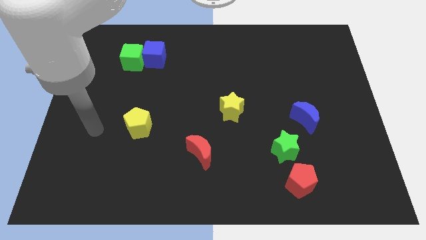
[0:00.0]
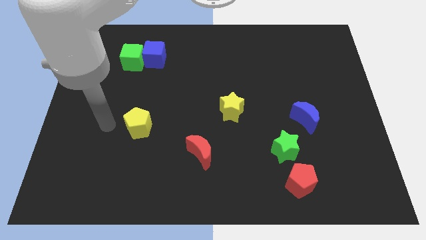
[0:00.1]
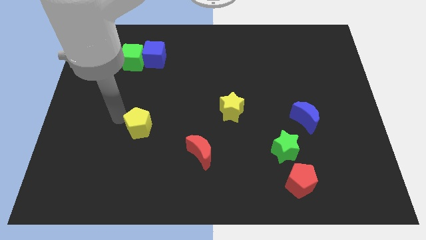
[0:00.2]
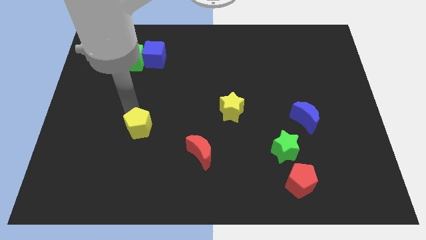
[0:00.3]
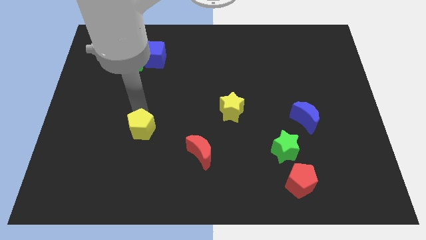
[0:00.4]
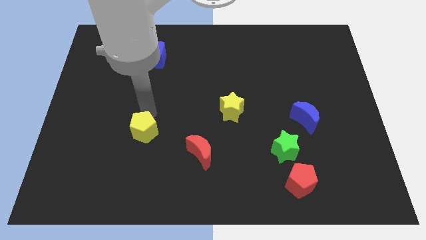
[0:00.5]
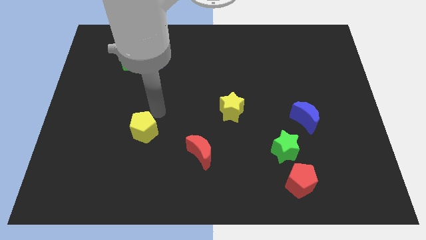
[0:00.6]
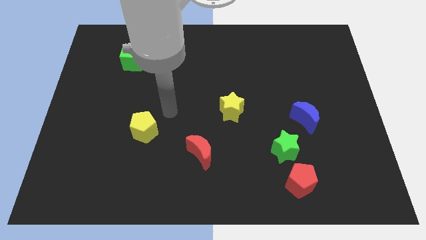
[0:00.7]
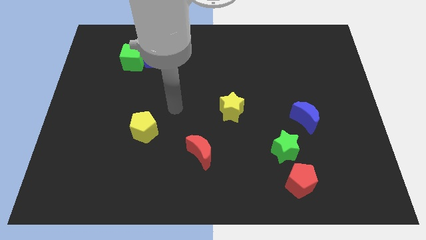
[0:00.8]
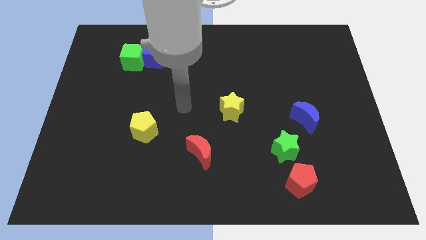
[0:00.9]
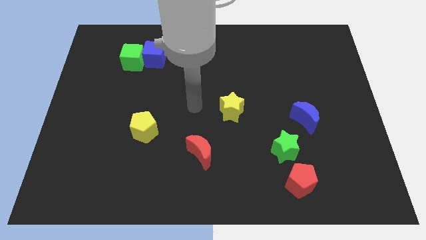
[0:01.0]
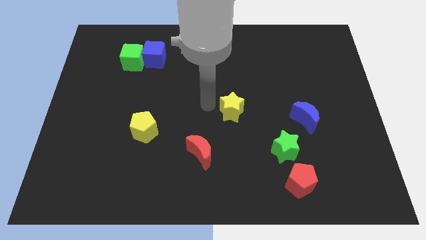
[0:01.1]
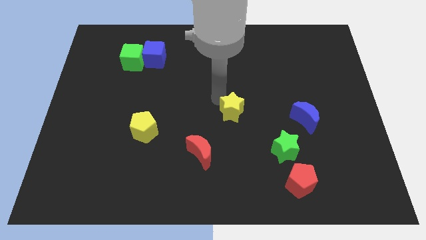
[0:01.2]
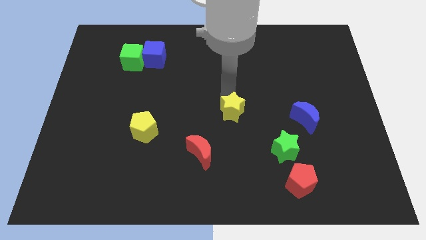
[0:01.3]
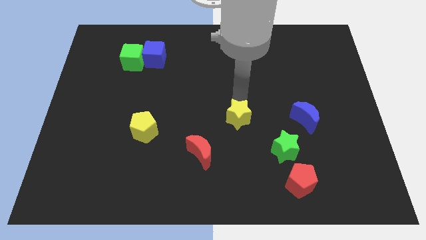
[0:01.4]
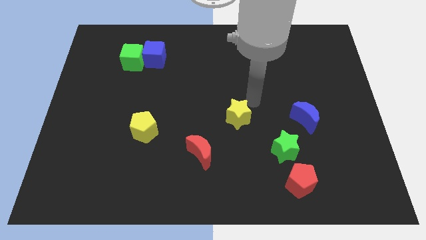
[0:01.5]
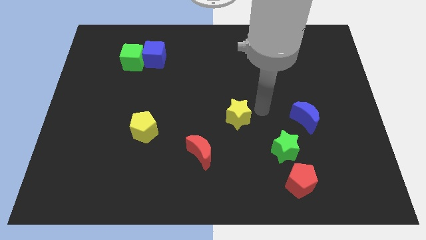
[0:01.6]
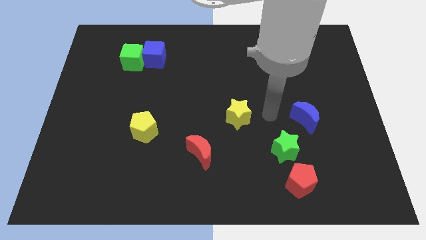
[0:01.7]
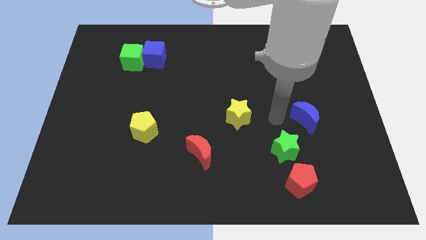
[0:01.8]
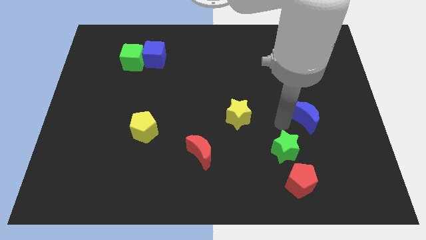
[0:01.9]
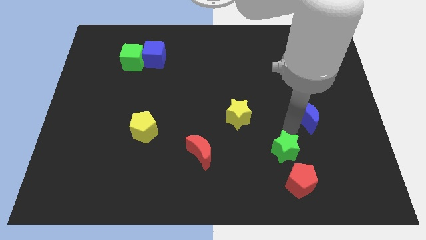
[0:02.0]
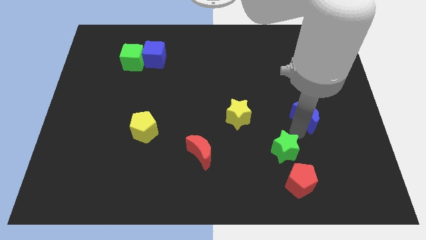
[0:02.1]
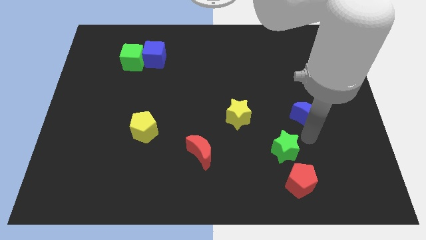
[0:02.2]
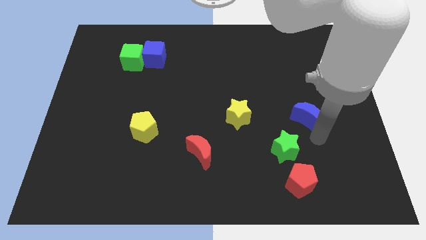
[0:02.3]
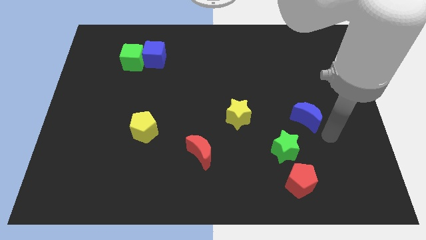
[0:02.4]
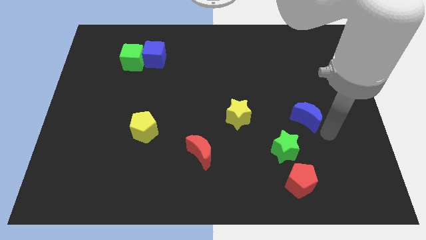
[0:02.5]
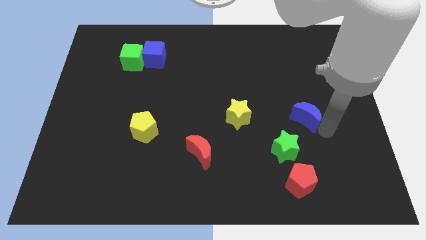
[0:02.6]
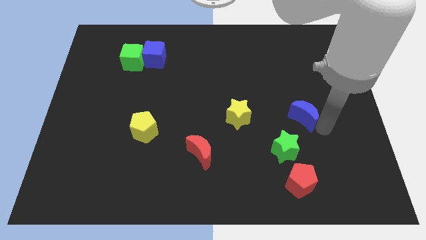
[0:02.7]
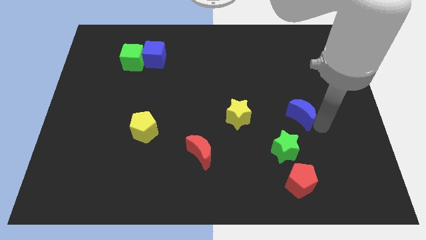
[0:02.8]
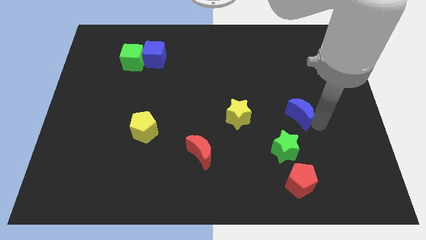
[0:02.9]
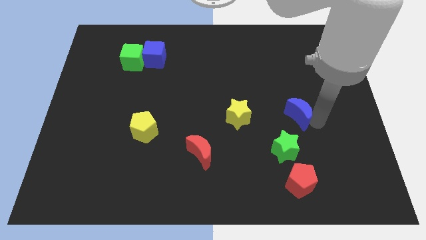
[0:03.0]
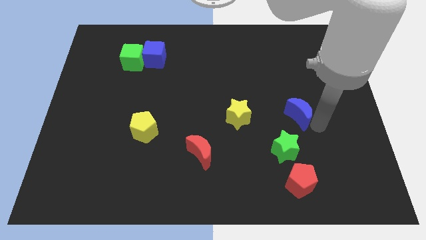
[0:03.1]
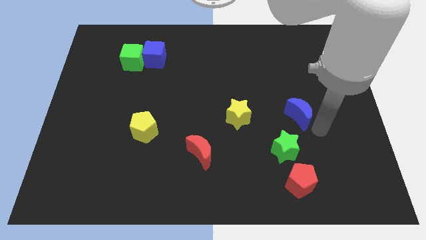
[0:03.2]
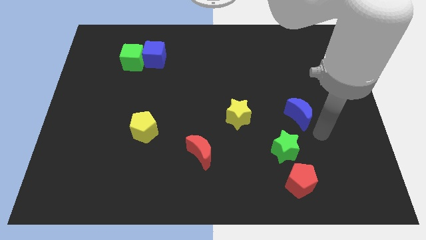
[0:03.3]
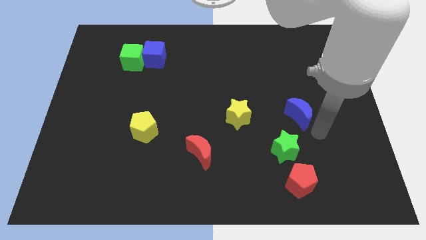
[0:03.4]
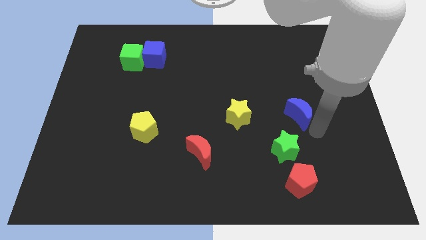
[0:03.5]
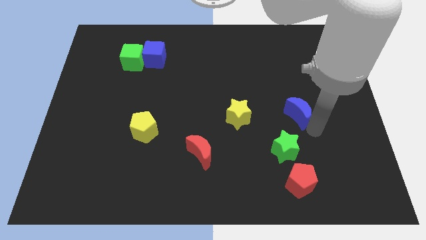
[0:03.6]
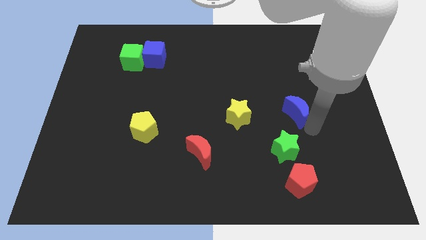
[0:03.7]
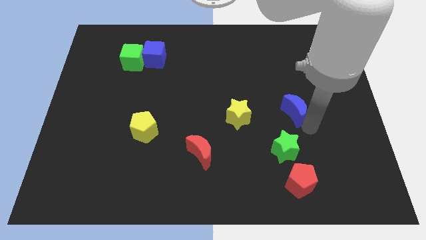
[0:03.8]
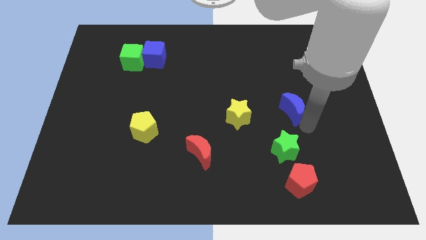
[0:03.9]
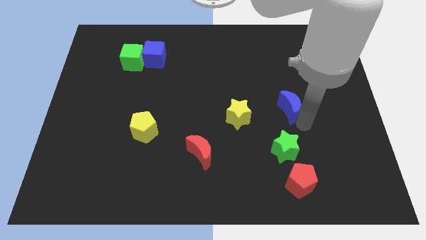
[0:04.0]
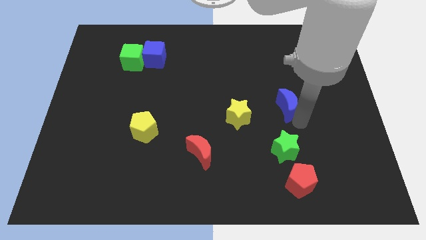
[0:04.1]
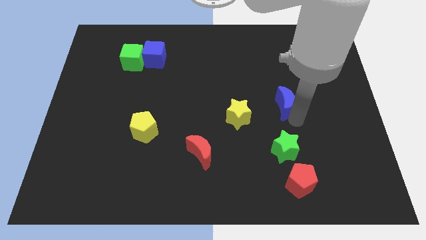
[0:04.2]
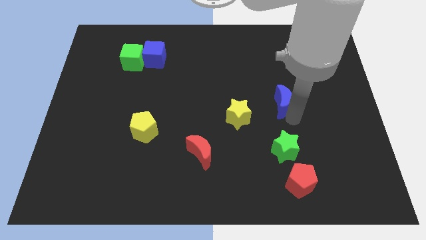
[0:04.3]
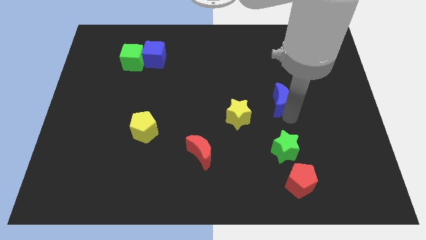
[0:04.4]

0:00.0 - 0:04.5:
slightly move the blue moon upwards and then to the left

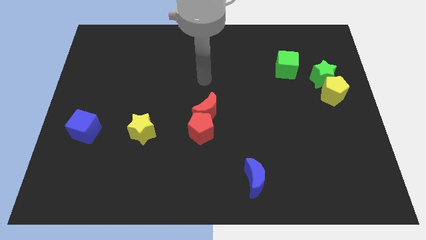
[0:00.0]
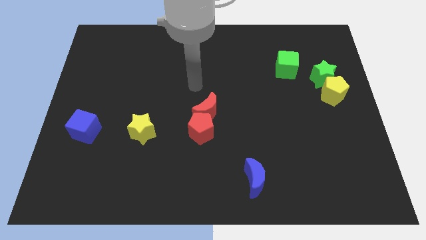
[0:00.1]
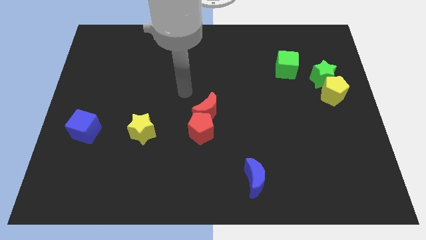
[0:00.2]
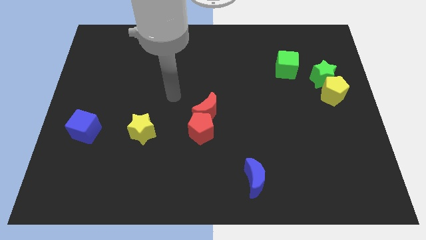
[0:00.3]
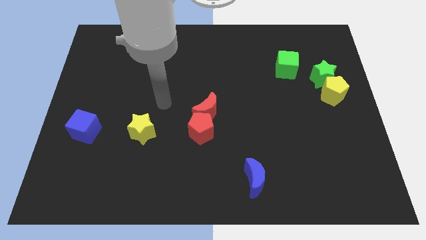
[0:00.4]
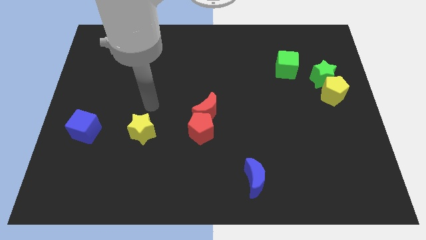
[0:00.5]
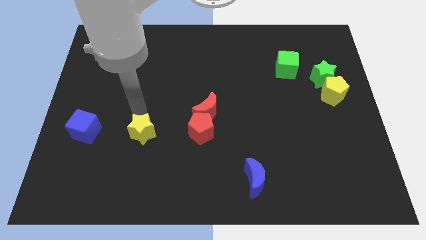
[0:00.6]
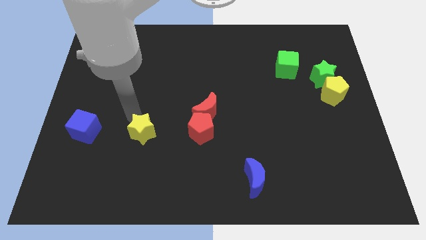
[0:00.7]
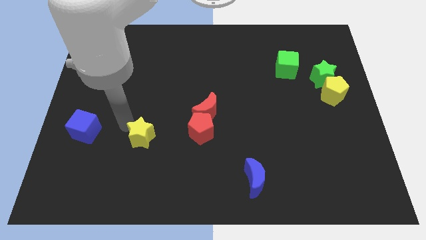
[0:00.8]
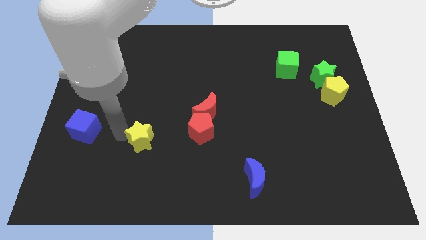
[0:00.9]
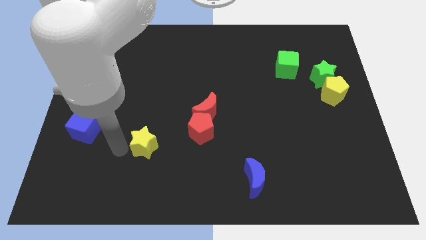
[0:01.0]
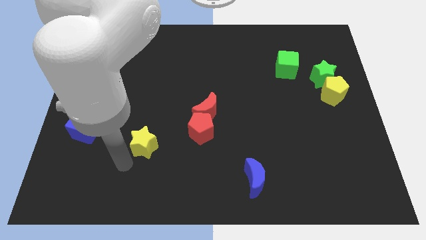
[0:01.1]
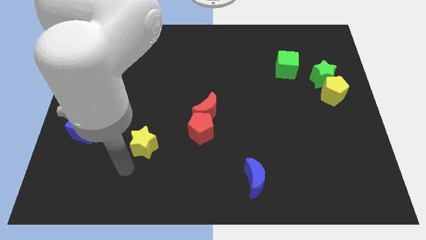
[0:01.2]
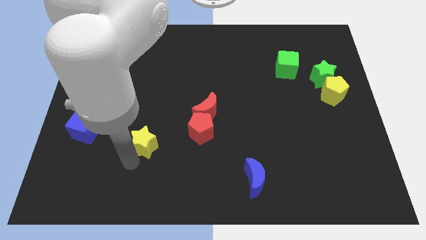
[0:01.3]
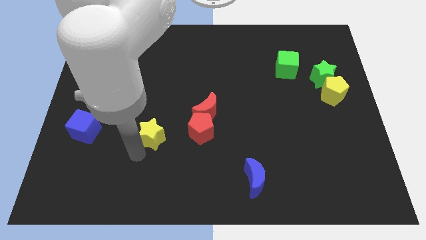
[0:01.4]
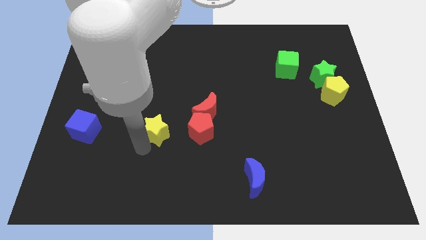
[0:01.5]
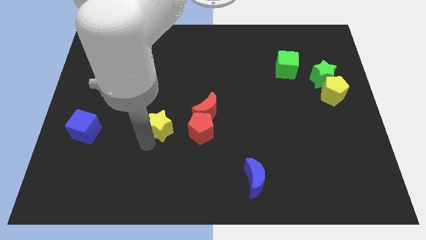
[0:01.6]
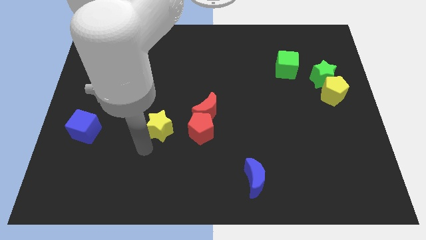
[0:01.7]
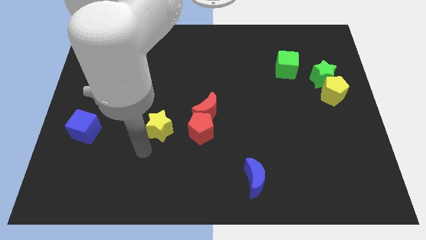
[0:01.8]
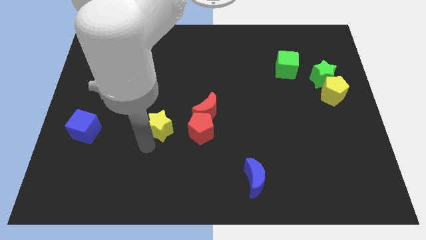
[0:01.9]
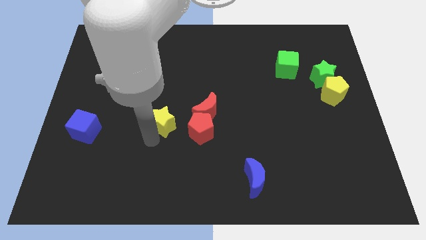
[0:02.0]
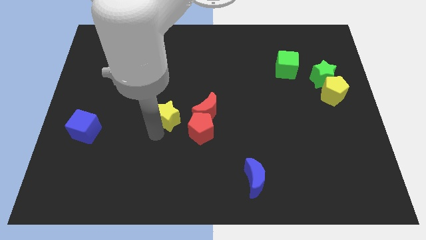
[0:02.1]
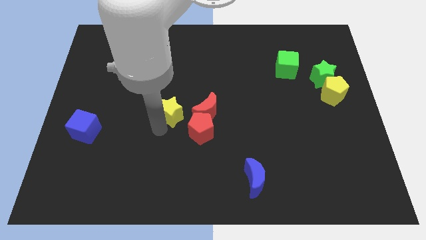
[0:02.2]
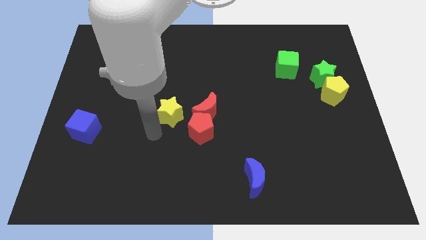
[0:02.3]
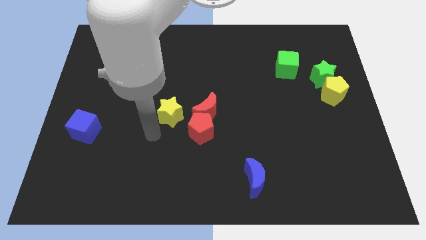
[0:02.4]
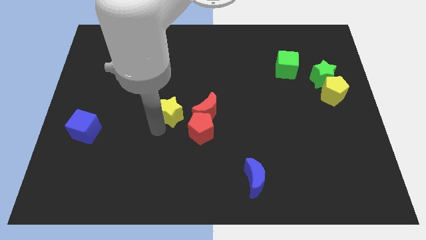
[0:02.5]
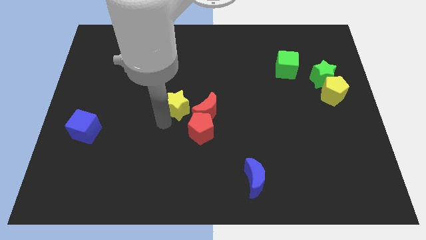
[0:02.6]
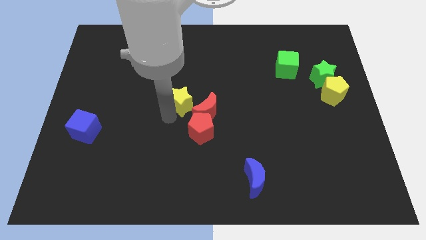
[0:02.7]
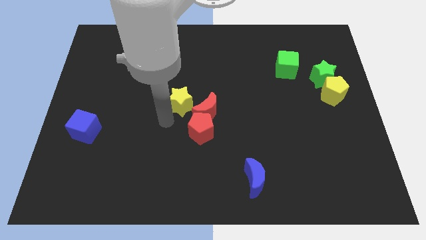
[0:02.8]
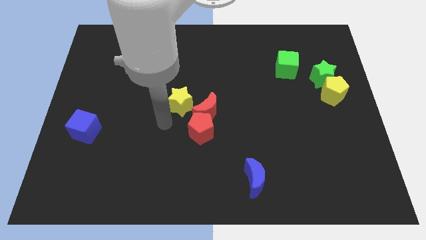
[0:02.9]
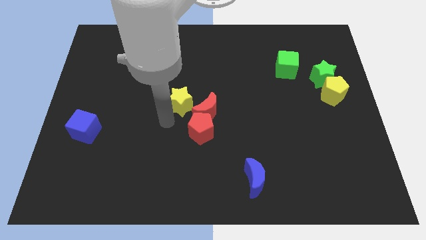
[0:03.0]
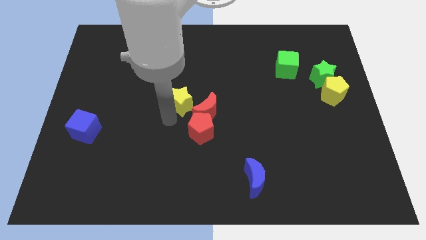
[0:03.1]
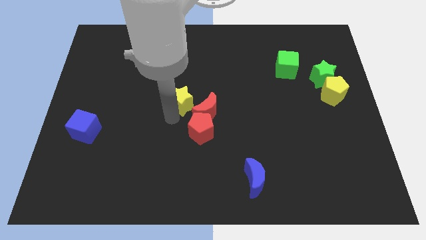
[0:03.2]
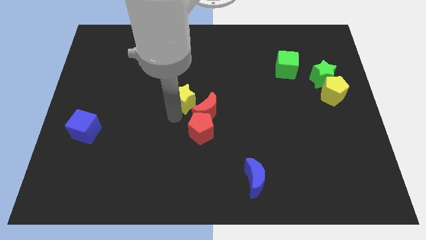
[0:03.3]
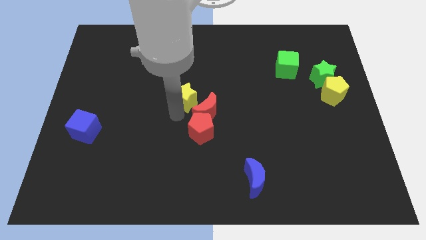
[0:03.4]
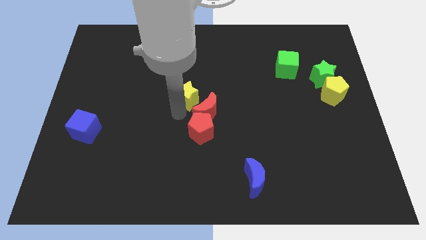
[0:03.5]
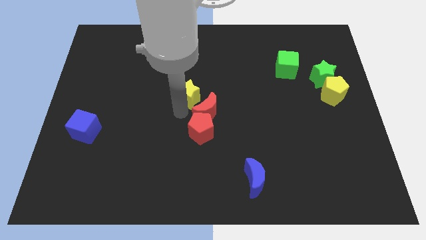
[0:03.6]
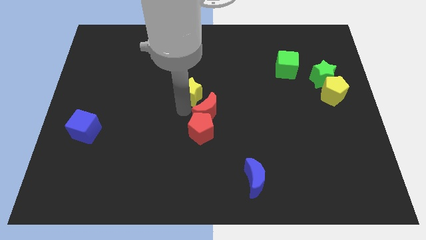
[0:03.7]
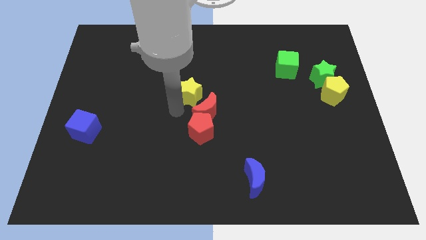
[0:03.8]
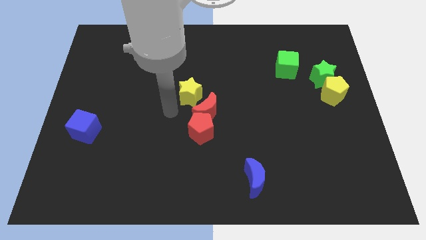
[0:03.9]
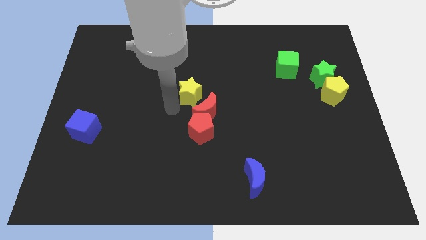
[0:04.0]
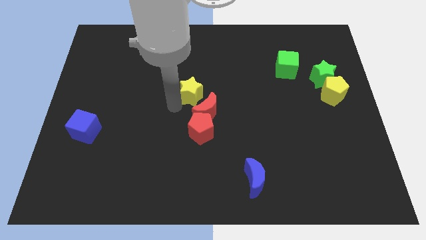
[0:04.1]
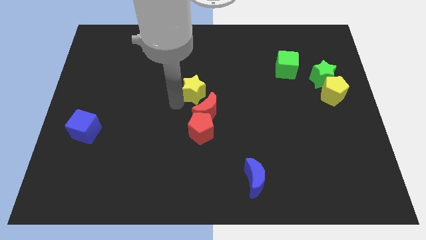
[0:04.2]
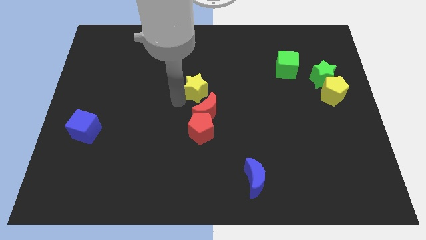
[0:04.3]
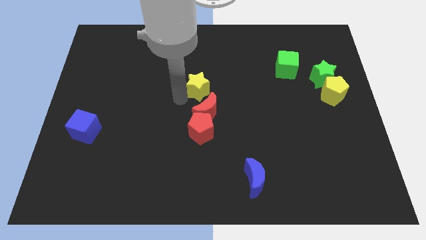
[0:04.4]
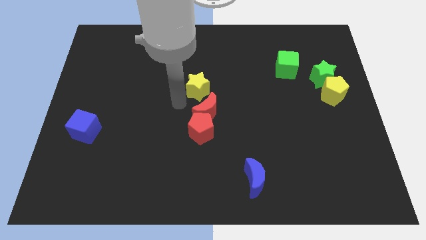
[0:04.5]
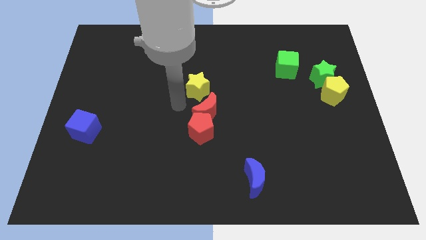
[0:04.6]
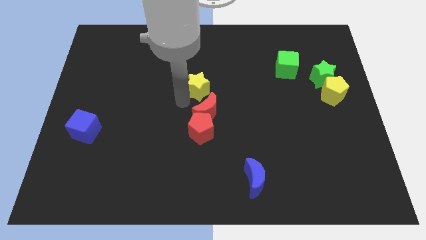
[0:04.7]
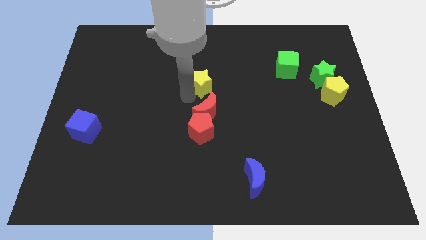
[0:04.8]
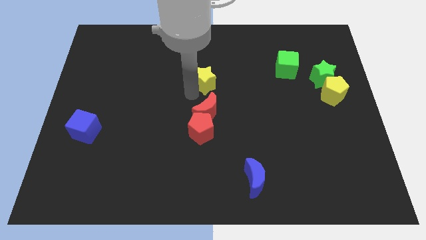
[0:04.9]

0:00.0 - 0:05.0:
slide the yellow star upwards and then to the right
